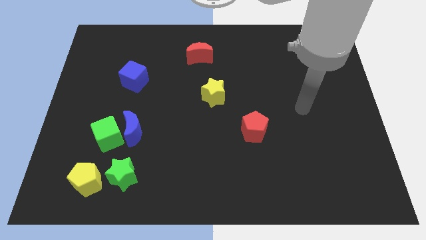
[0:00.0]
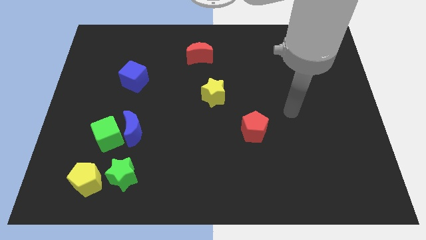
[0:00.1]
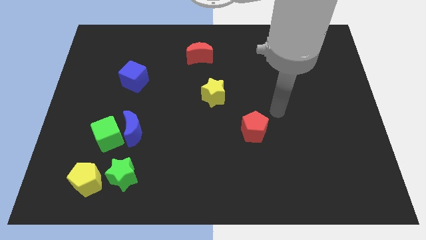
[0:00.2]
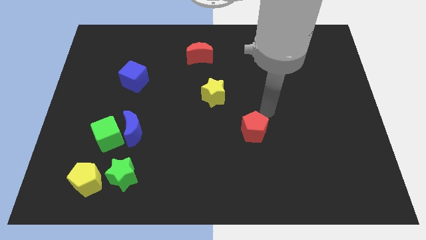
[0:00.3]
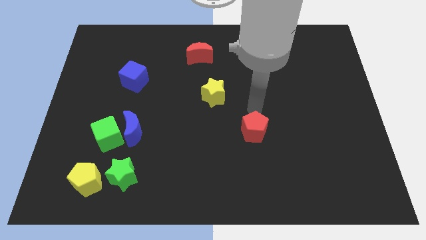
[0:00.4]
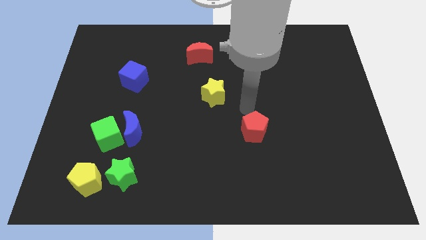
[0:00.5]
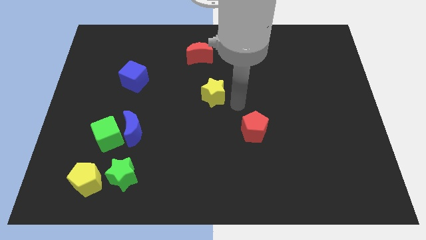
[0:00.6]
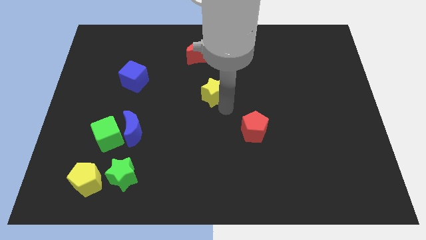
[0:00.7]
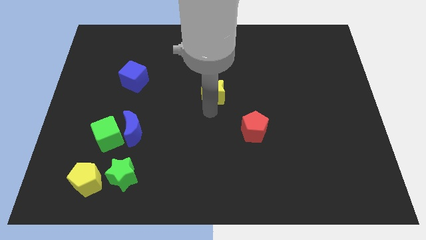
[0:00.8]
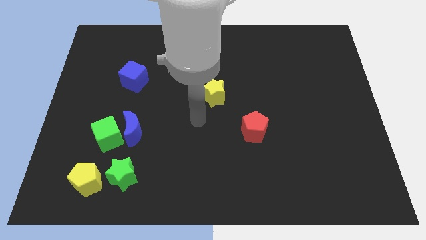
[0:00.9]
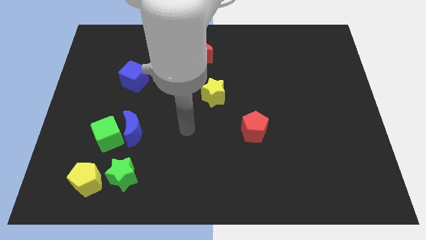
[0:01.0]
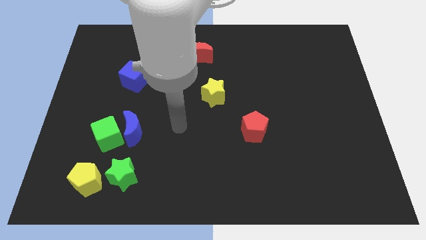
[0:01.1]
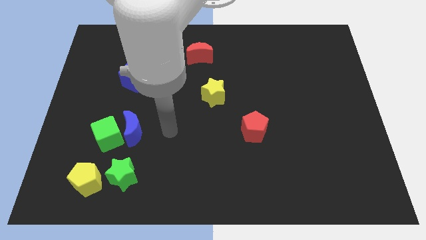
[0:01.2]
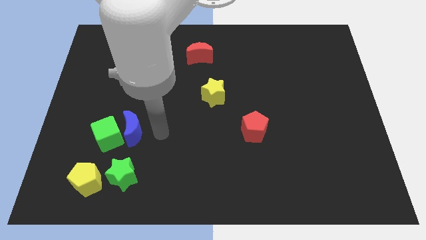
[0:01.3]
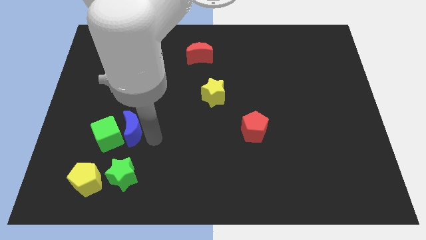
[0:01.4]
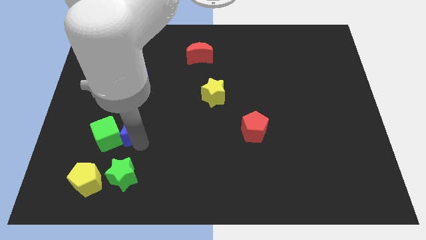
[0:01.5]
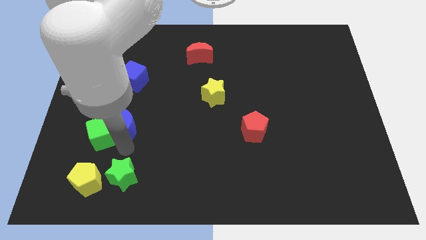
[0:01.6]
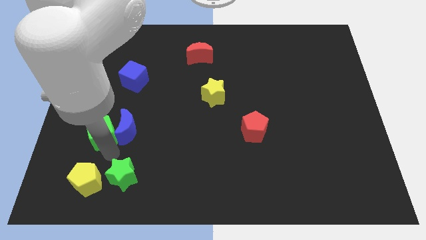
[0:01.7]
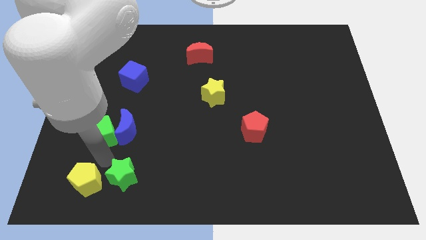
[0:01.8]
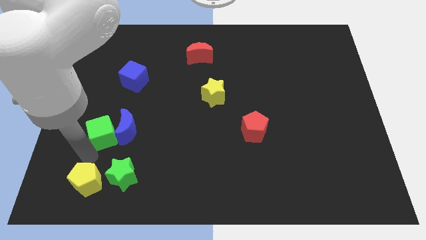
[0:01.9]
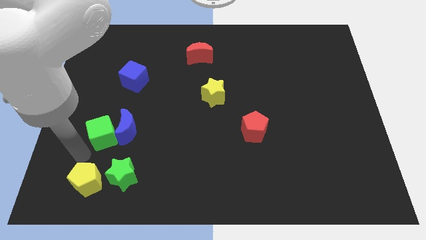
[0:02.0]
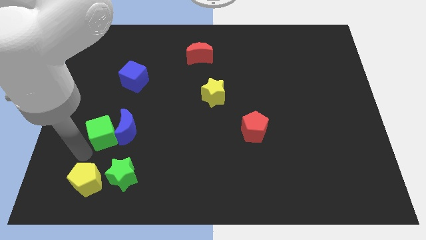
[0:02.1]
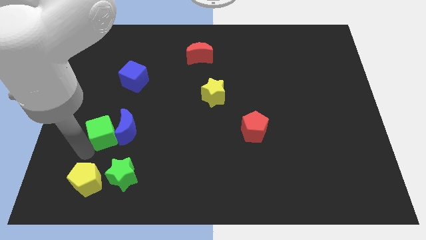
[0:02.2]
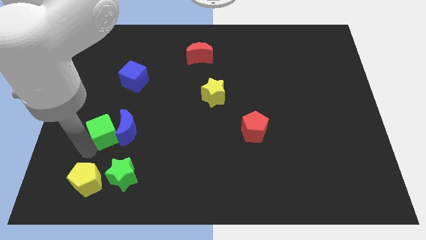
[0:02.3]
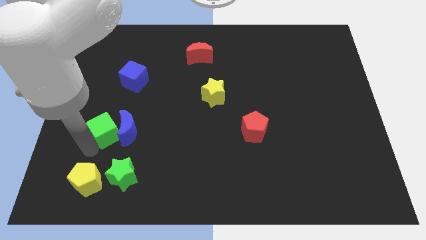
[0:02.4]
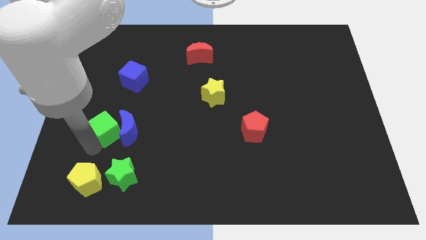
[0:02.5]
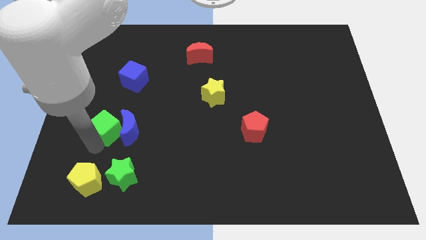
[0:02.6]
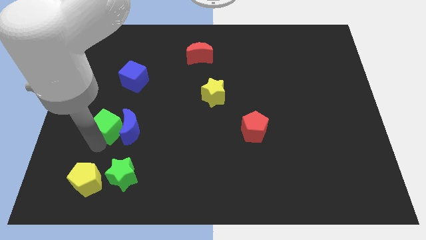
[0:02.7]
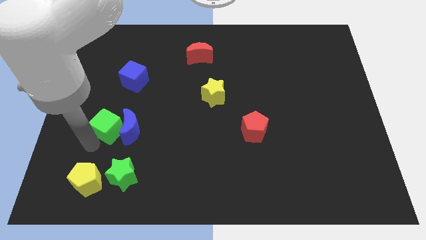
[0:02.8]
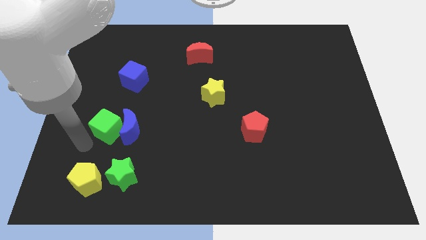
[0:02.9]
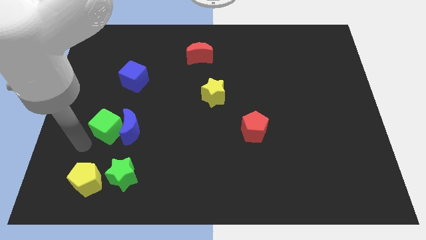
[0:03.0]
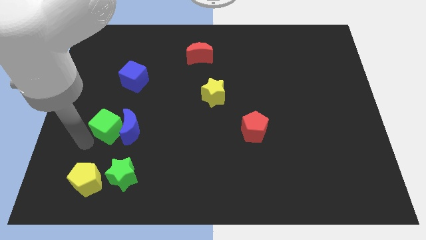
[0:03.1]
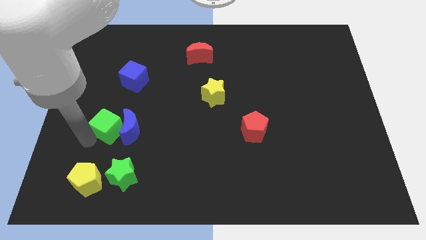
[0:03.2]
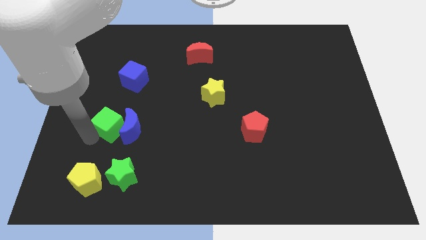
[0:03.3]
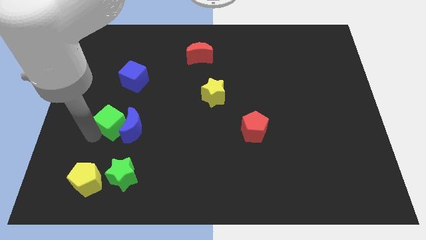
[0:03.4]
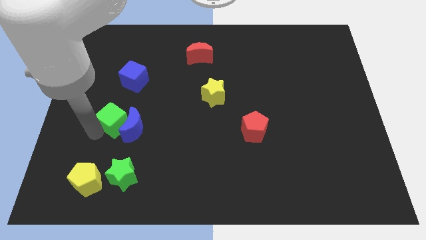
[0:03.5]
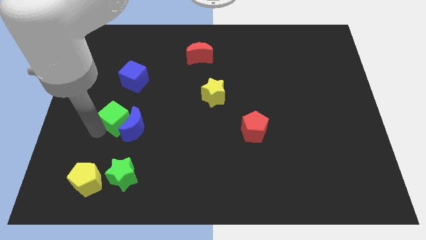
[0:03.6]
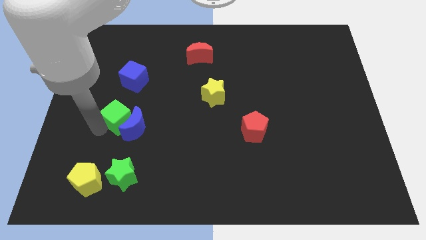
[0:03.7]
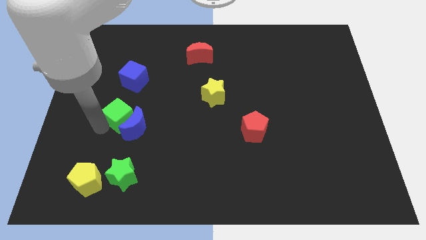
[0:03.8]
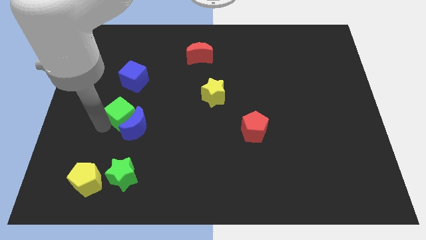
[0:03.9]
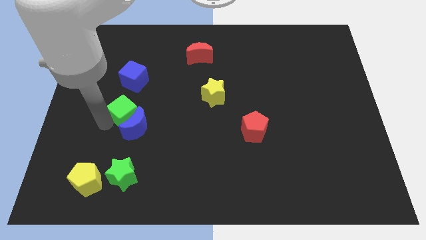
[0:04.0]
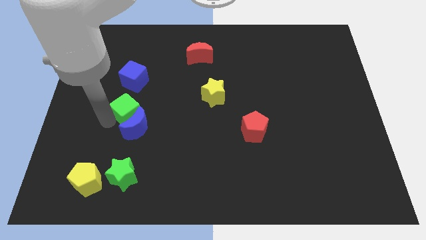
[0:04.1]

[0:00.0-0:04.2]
slide the green cube a bit diagonally up and to the right

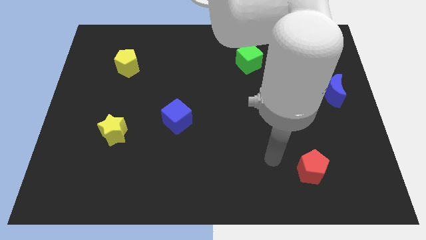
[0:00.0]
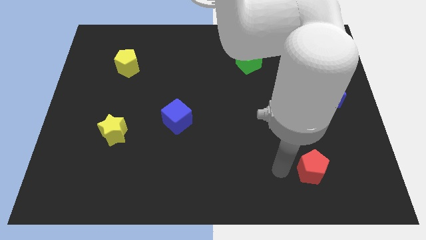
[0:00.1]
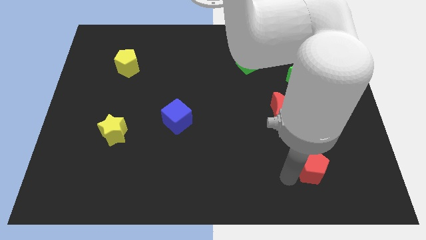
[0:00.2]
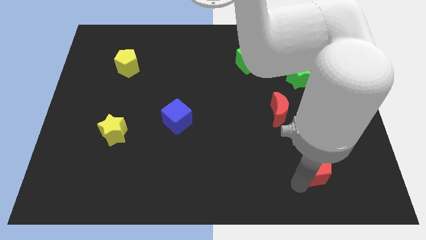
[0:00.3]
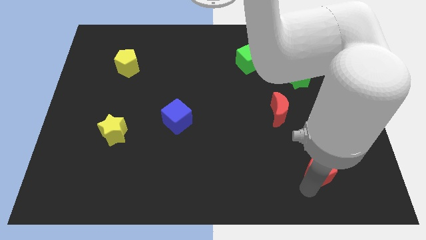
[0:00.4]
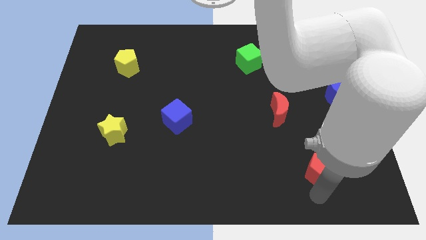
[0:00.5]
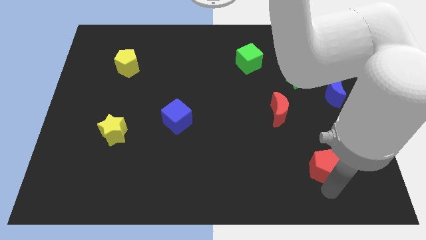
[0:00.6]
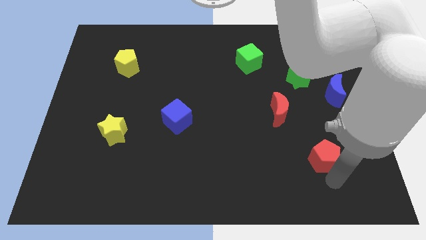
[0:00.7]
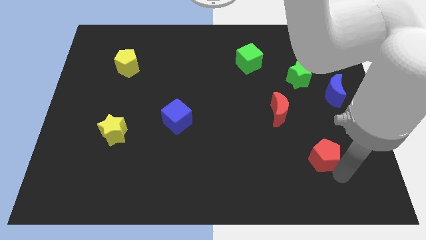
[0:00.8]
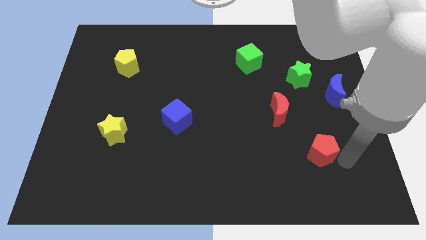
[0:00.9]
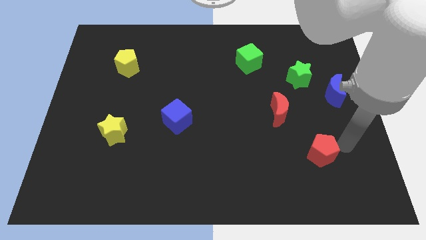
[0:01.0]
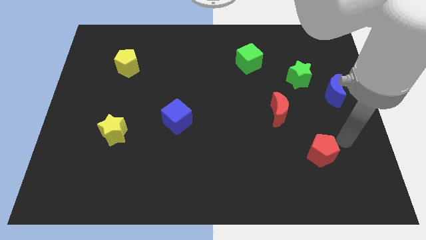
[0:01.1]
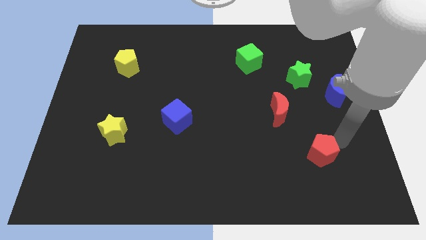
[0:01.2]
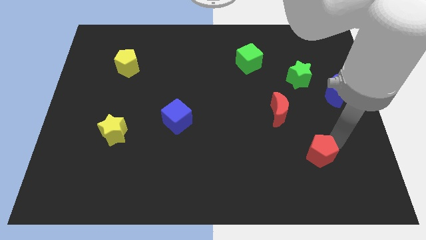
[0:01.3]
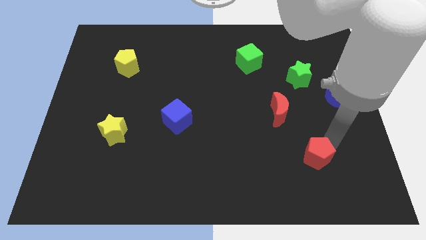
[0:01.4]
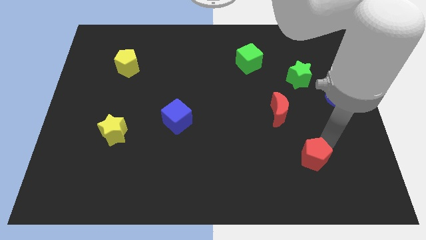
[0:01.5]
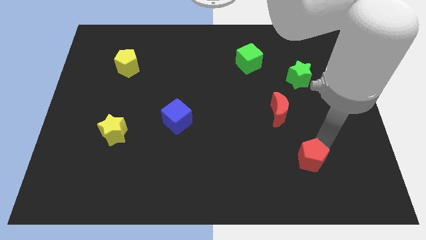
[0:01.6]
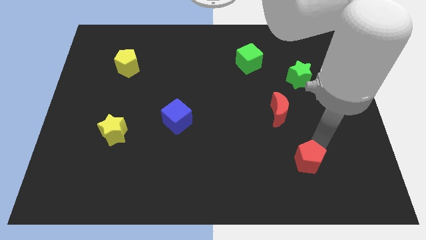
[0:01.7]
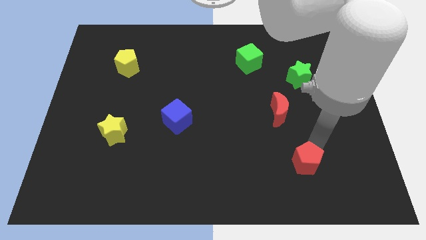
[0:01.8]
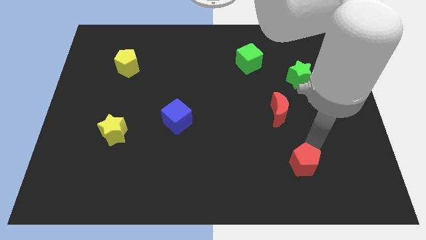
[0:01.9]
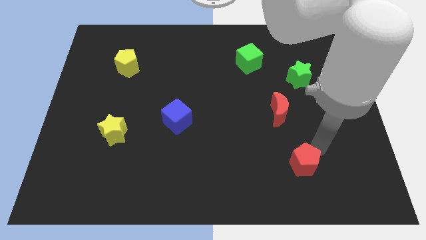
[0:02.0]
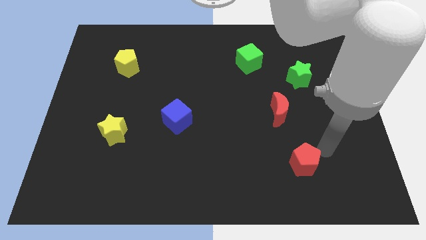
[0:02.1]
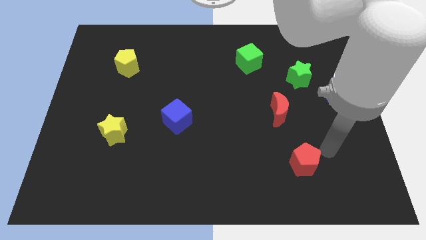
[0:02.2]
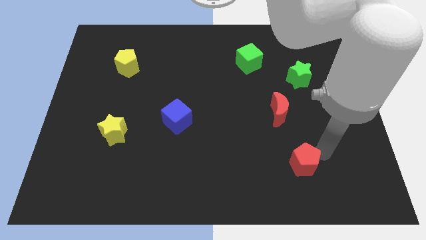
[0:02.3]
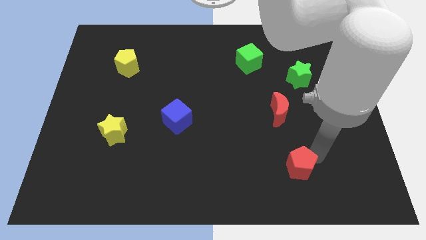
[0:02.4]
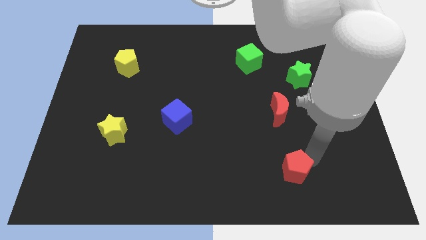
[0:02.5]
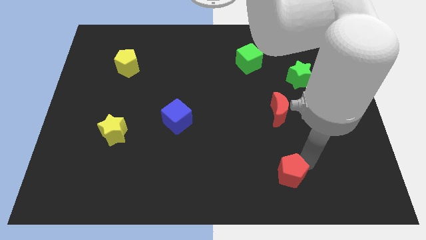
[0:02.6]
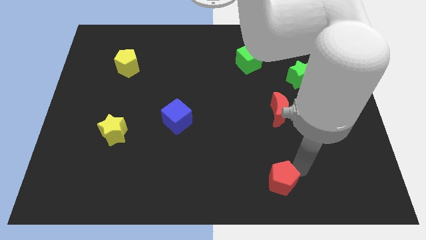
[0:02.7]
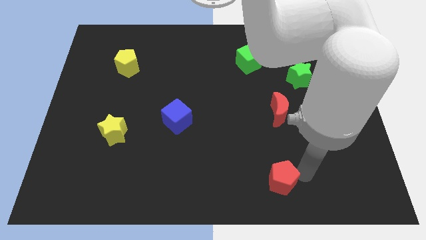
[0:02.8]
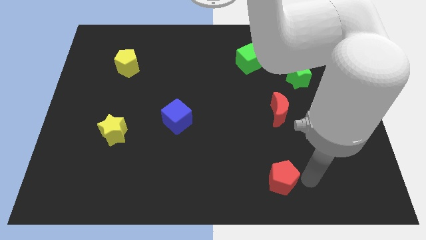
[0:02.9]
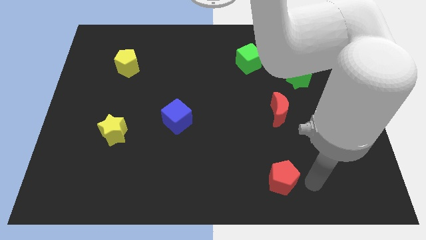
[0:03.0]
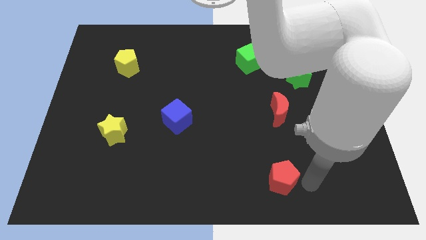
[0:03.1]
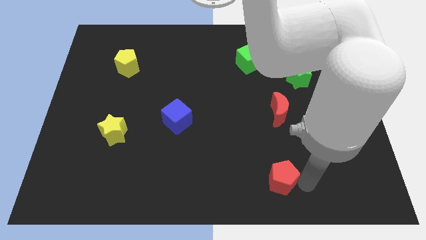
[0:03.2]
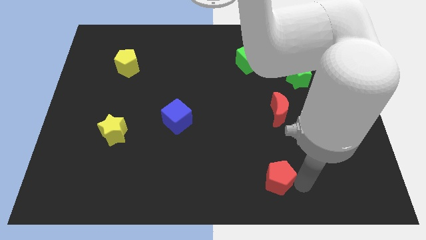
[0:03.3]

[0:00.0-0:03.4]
slide the red pentagon slightly left

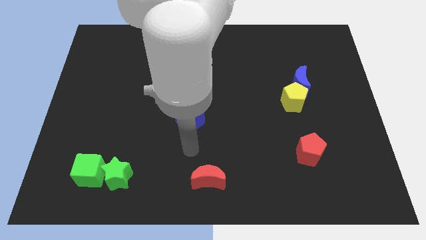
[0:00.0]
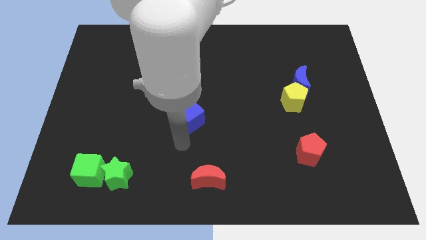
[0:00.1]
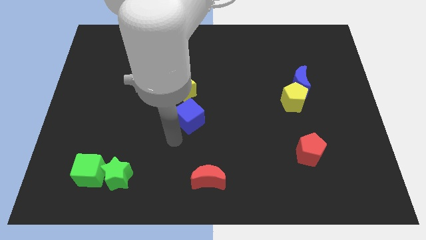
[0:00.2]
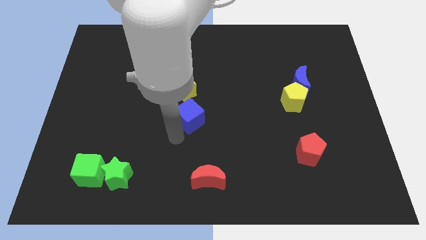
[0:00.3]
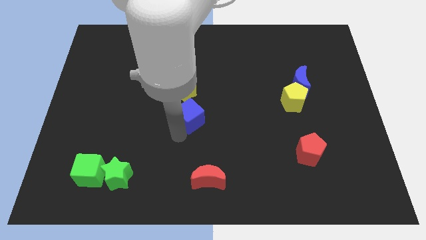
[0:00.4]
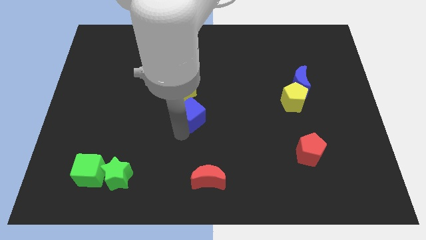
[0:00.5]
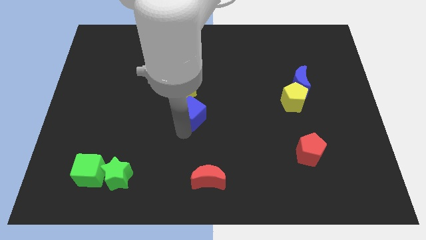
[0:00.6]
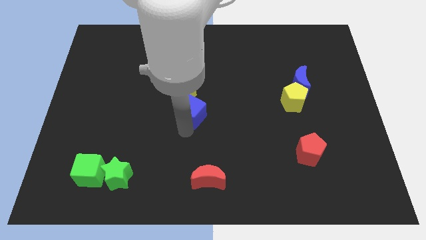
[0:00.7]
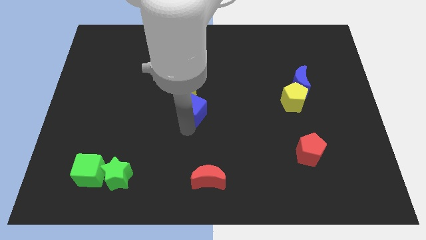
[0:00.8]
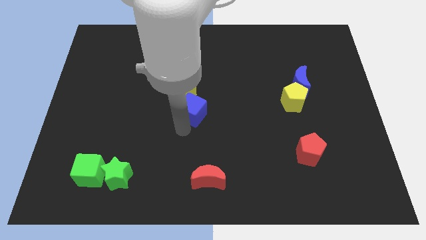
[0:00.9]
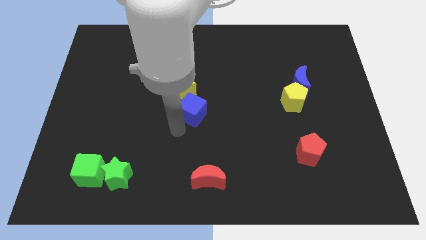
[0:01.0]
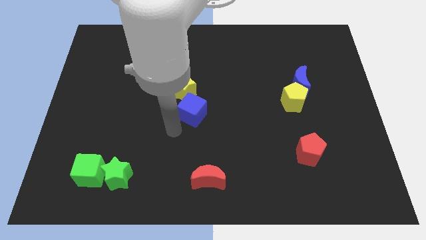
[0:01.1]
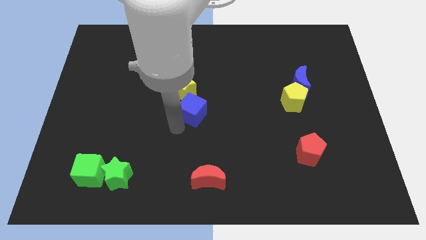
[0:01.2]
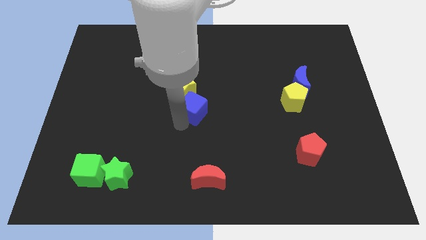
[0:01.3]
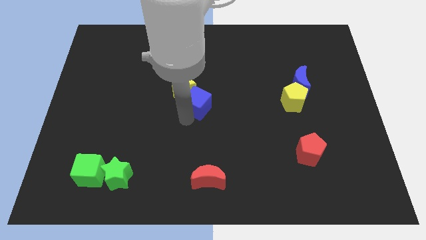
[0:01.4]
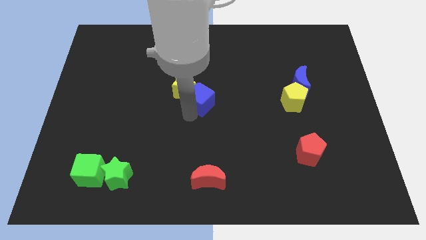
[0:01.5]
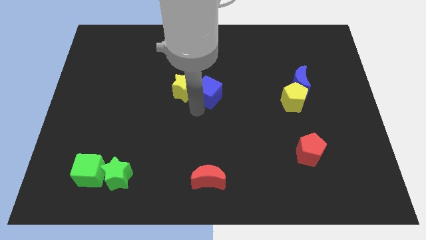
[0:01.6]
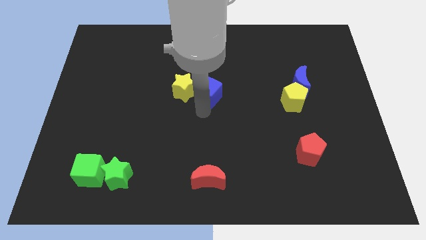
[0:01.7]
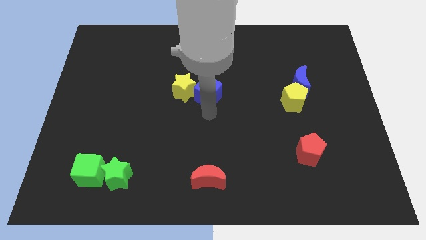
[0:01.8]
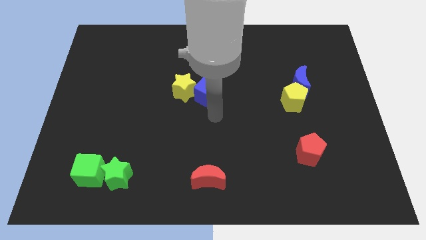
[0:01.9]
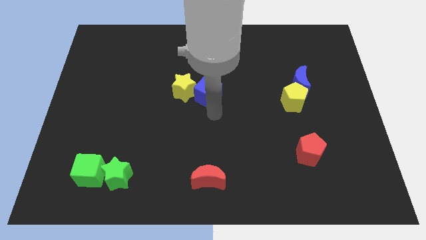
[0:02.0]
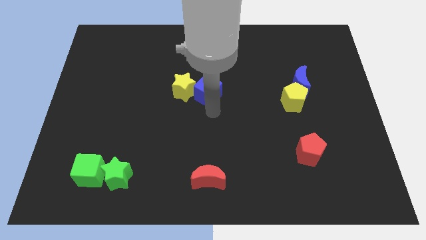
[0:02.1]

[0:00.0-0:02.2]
push the blue cube upwards a bit
